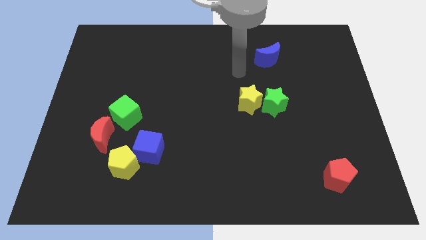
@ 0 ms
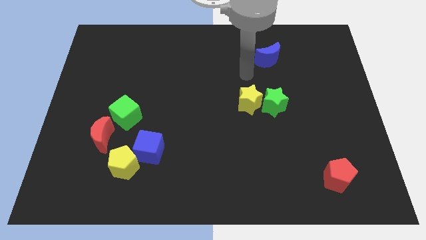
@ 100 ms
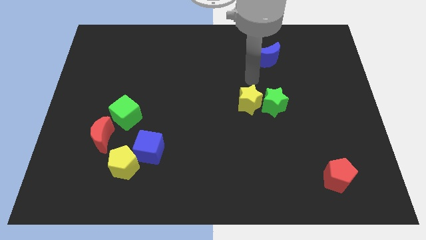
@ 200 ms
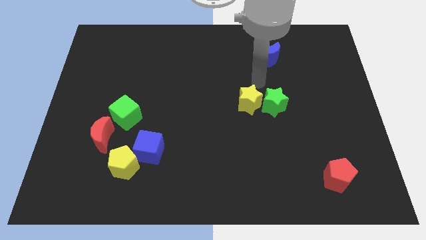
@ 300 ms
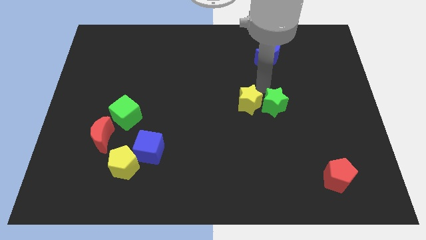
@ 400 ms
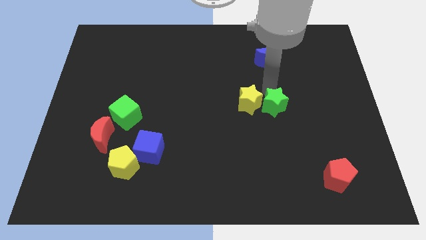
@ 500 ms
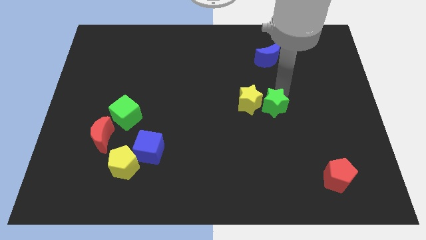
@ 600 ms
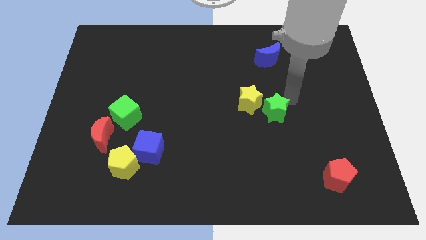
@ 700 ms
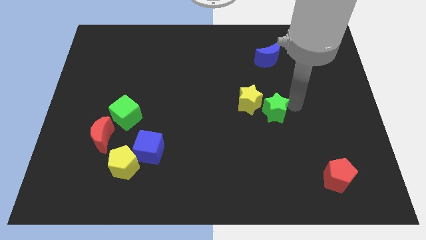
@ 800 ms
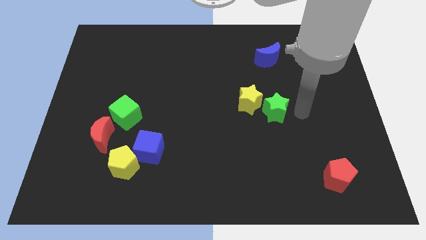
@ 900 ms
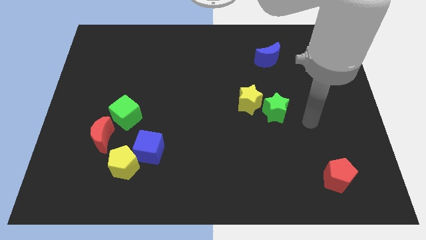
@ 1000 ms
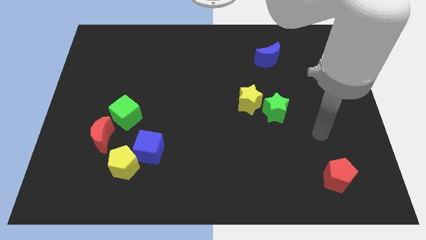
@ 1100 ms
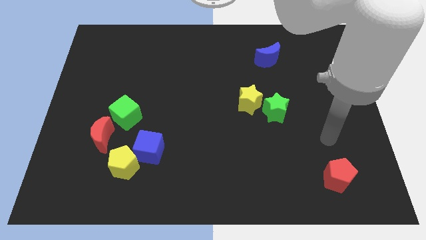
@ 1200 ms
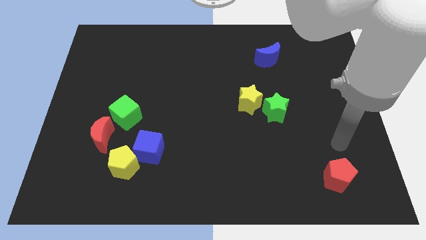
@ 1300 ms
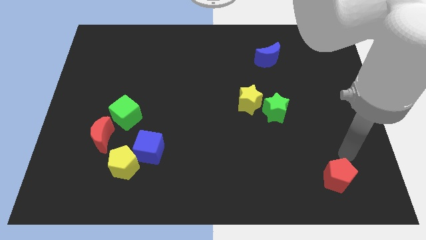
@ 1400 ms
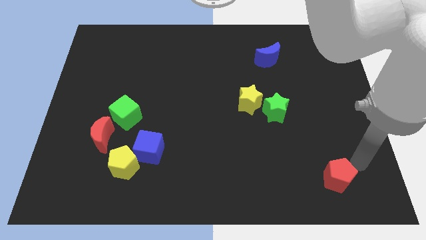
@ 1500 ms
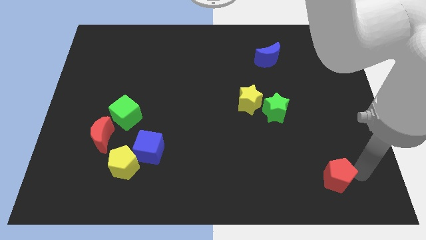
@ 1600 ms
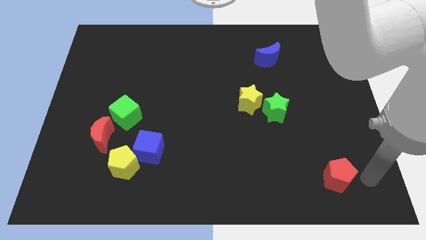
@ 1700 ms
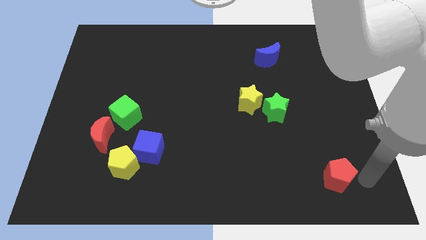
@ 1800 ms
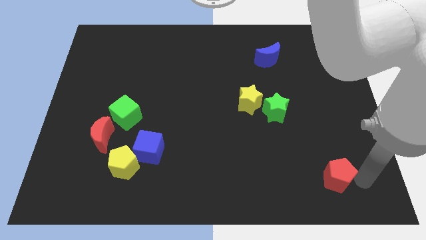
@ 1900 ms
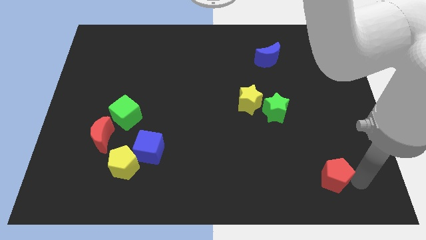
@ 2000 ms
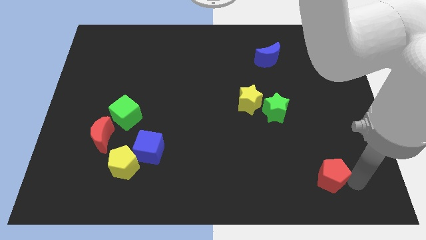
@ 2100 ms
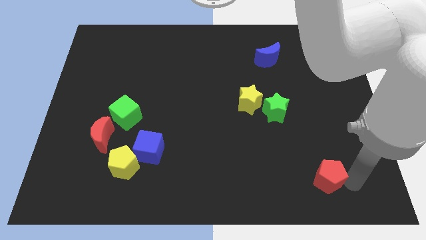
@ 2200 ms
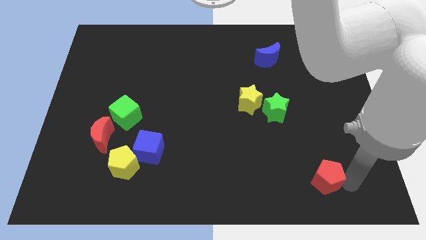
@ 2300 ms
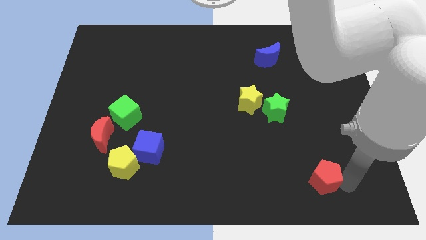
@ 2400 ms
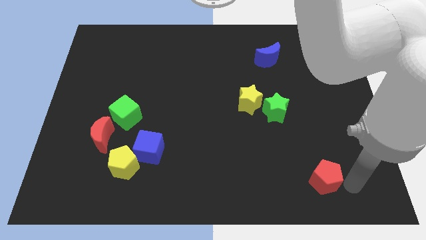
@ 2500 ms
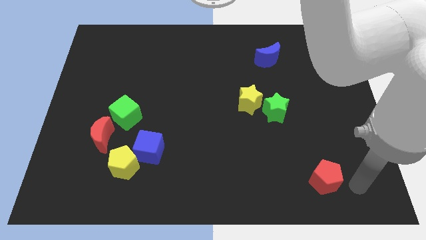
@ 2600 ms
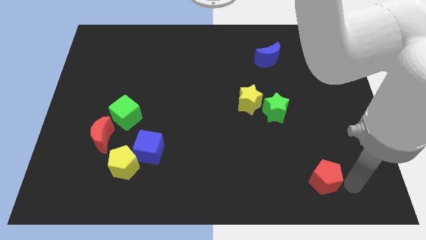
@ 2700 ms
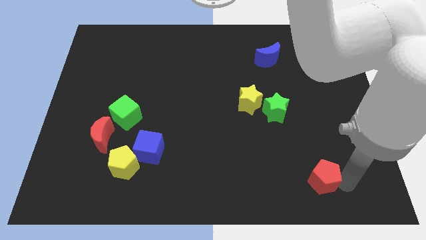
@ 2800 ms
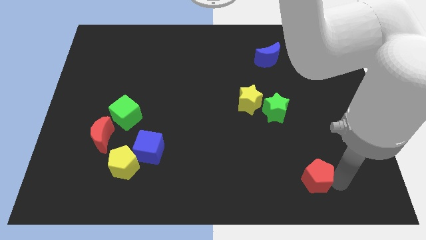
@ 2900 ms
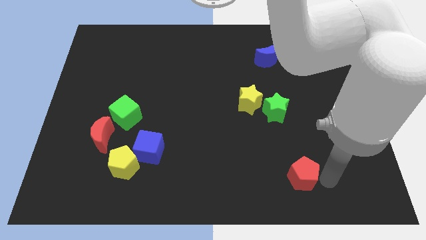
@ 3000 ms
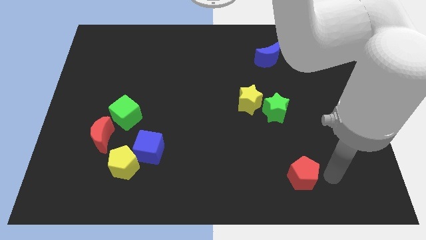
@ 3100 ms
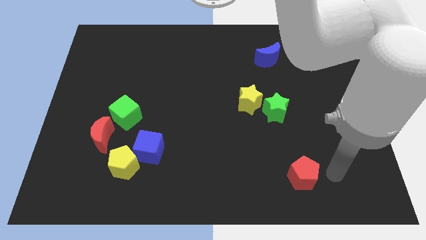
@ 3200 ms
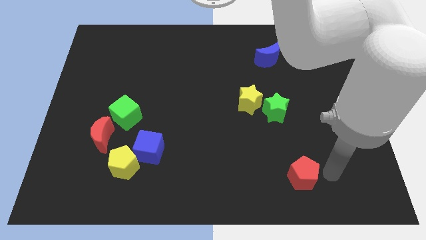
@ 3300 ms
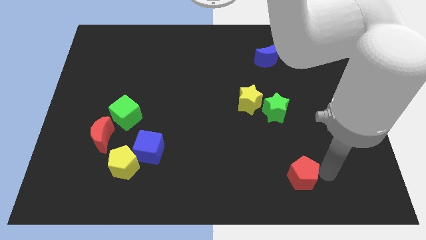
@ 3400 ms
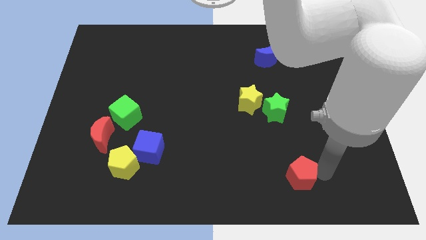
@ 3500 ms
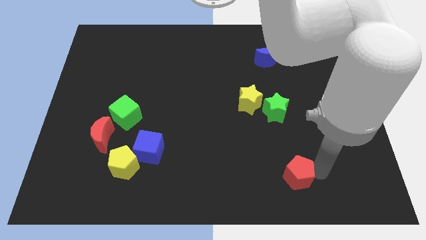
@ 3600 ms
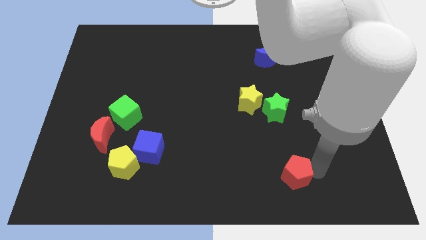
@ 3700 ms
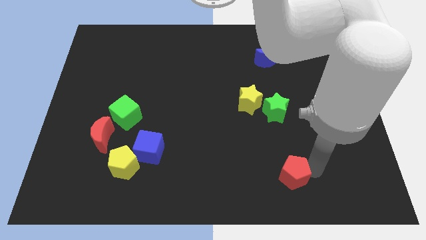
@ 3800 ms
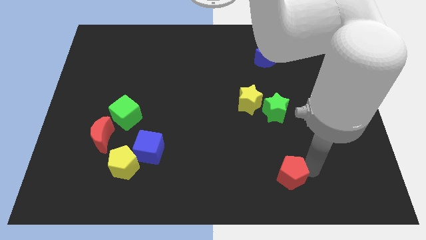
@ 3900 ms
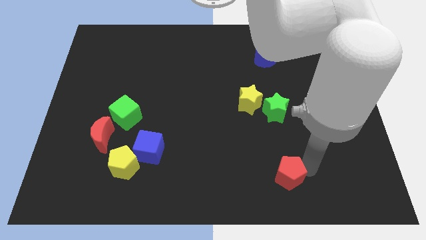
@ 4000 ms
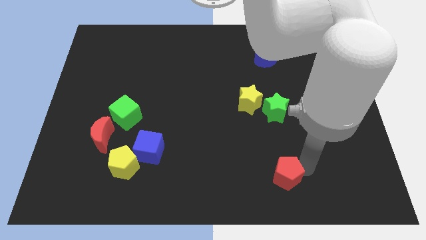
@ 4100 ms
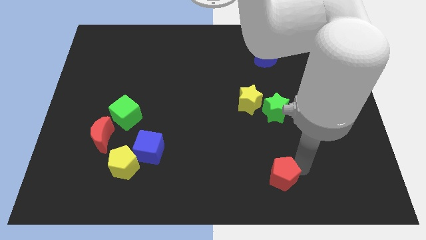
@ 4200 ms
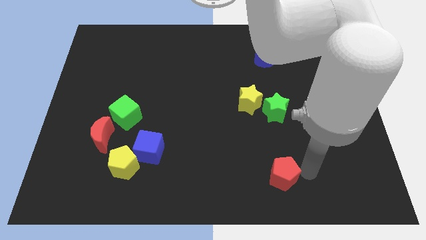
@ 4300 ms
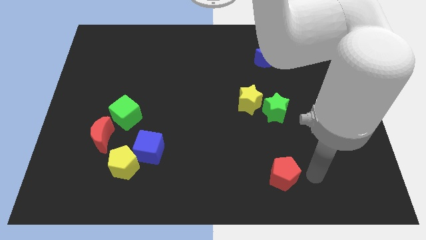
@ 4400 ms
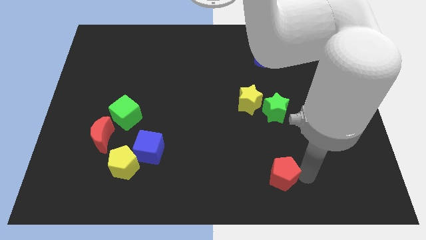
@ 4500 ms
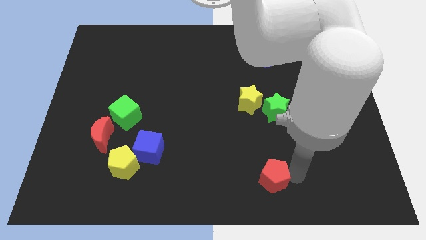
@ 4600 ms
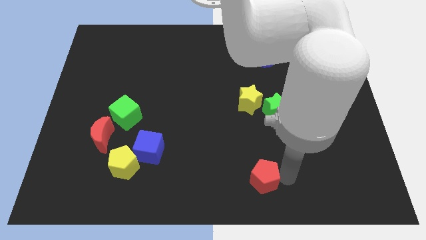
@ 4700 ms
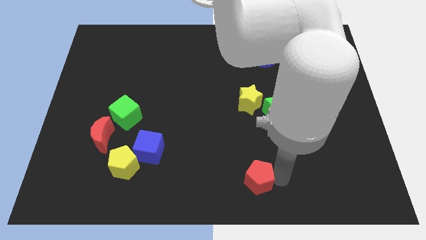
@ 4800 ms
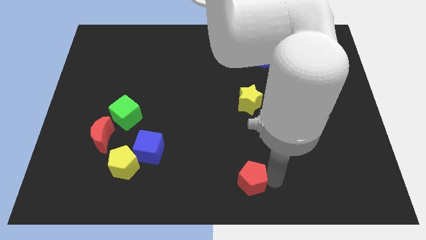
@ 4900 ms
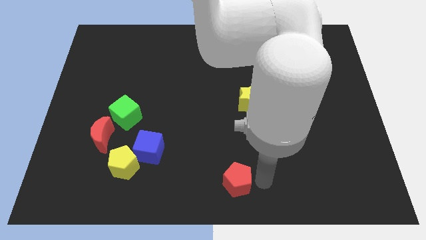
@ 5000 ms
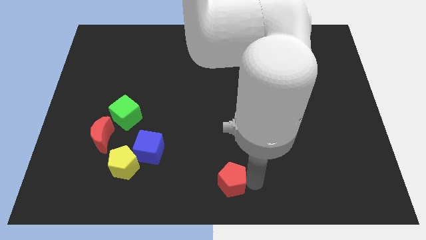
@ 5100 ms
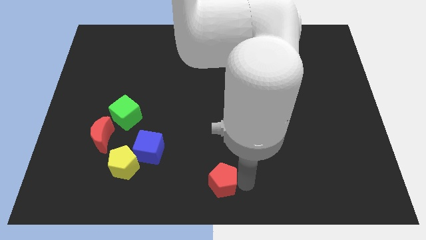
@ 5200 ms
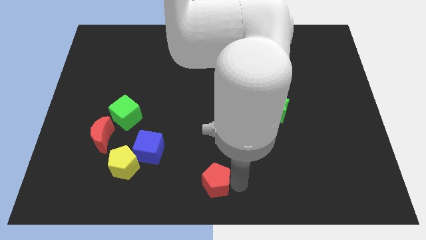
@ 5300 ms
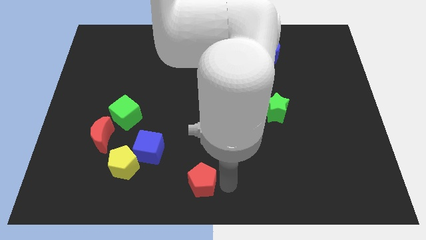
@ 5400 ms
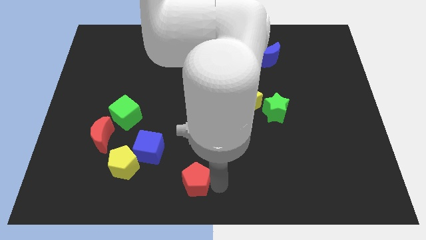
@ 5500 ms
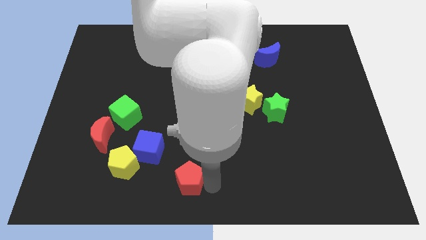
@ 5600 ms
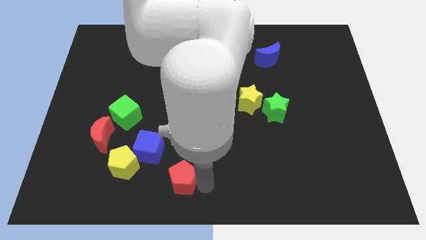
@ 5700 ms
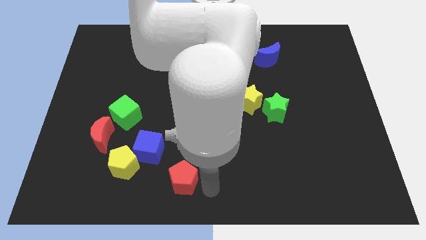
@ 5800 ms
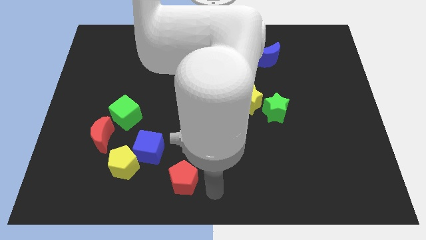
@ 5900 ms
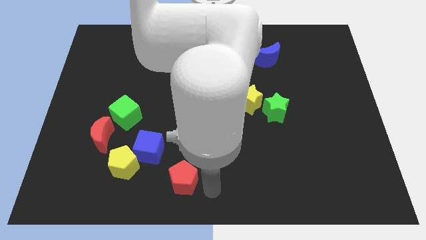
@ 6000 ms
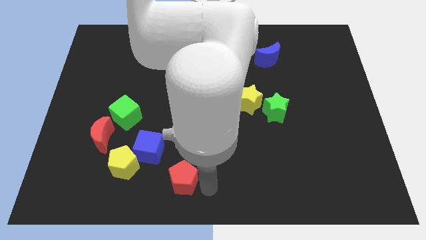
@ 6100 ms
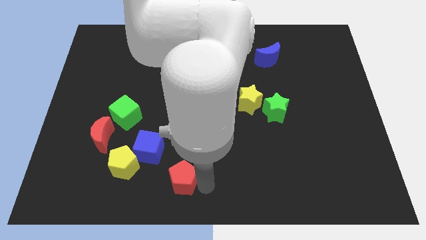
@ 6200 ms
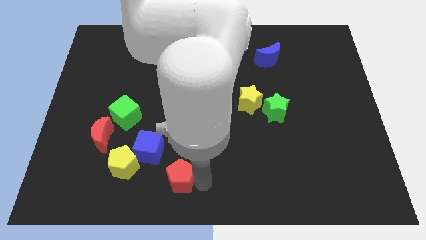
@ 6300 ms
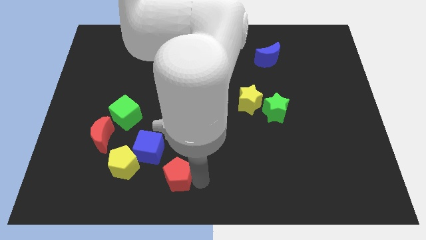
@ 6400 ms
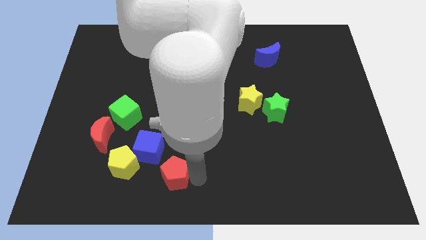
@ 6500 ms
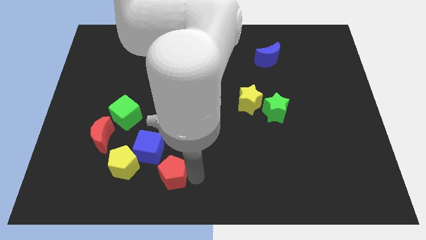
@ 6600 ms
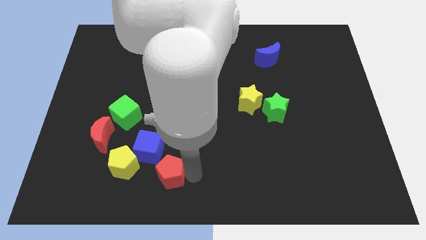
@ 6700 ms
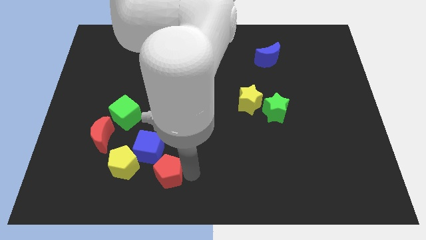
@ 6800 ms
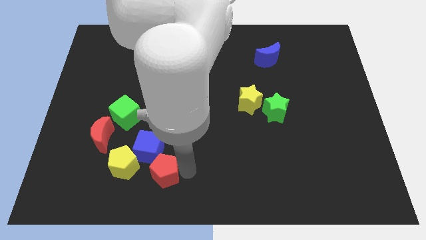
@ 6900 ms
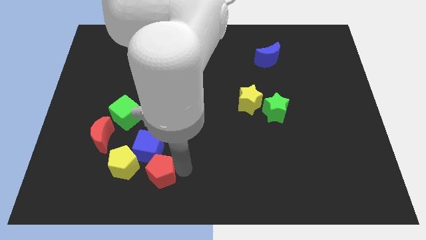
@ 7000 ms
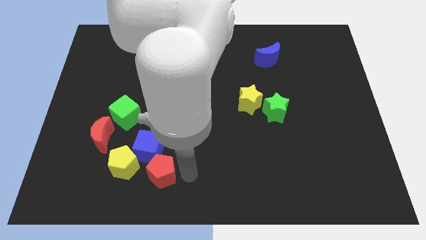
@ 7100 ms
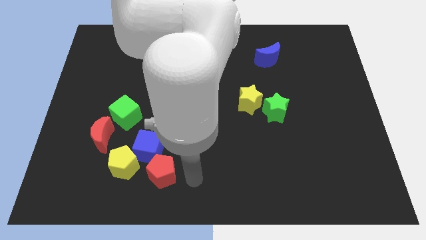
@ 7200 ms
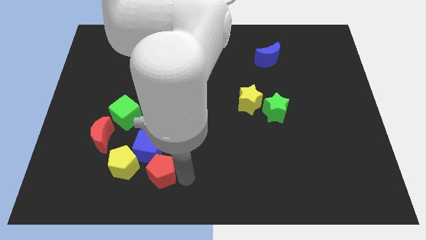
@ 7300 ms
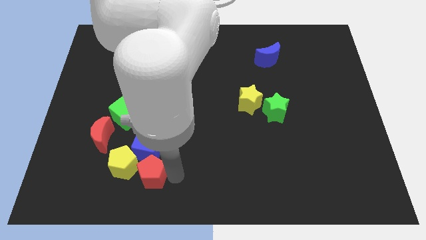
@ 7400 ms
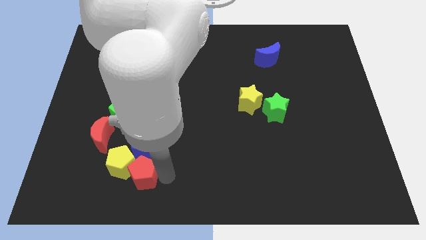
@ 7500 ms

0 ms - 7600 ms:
push the red pentagon towards the yellow pentagon
